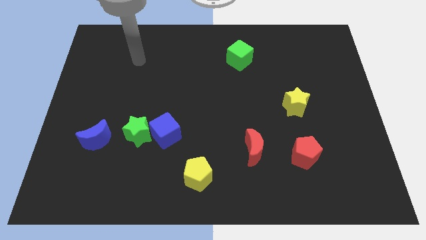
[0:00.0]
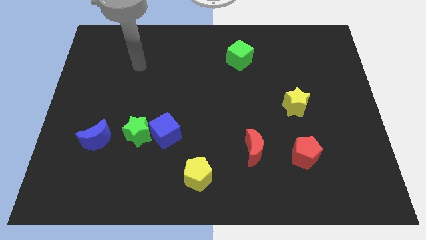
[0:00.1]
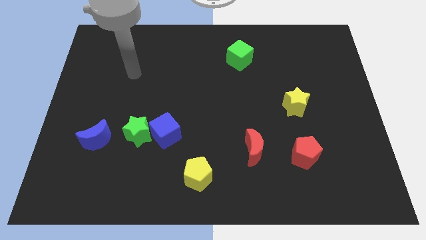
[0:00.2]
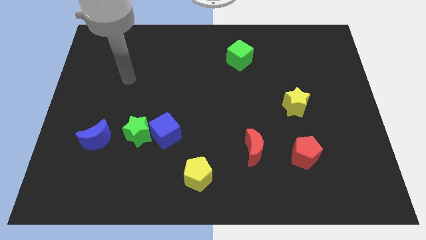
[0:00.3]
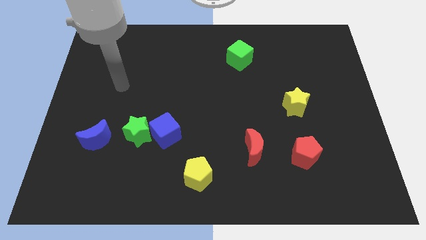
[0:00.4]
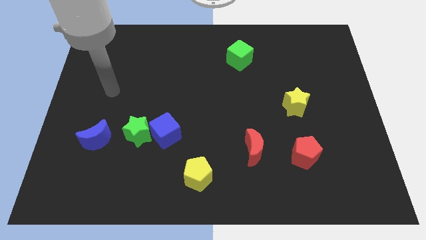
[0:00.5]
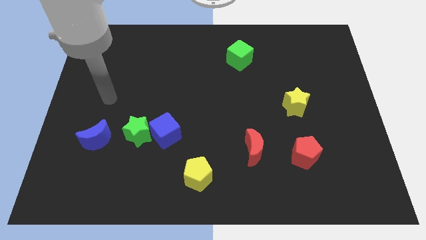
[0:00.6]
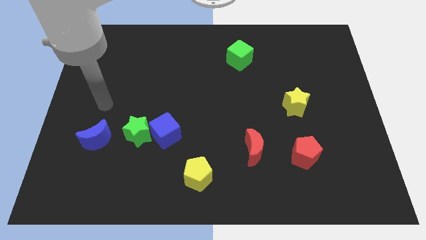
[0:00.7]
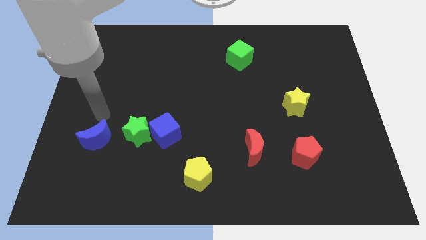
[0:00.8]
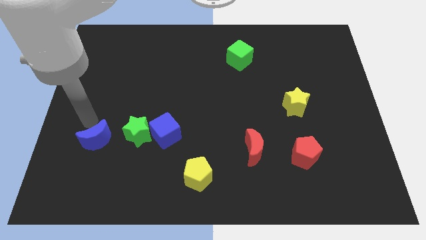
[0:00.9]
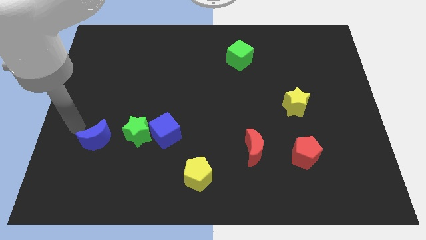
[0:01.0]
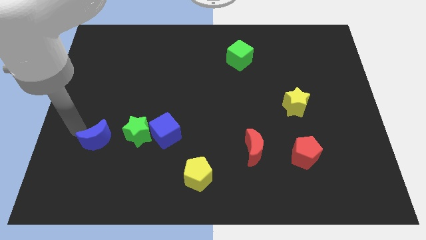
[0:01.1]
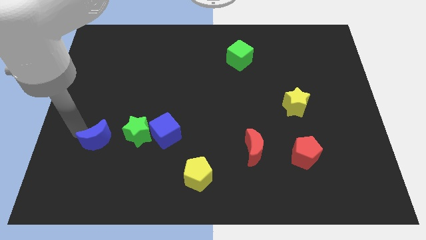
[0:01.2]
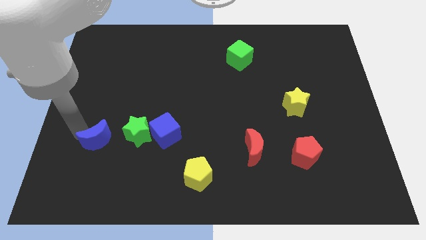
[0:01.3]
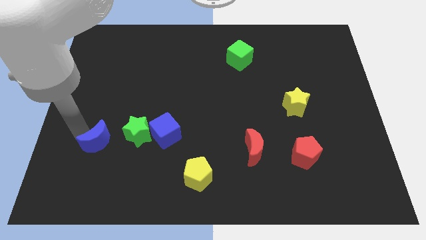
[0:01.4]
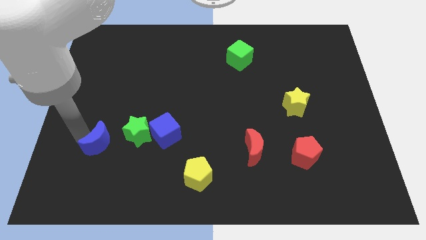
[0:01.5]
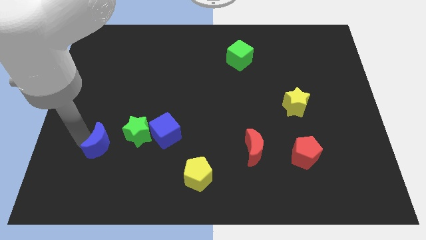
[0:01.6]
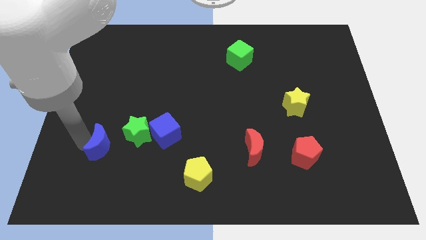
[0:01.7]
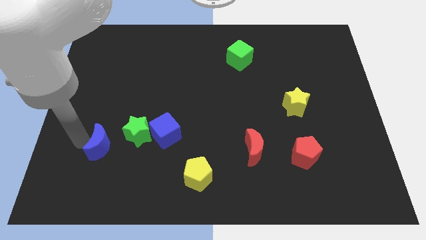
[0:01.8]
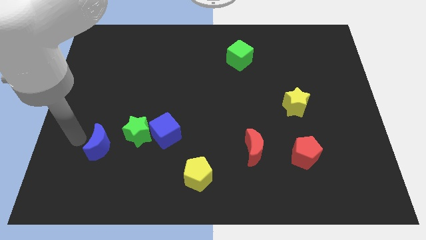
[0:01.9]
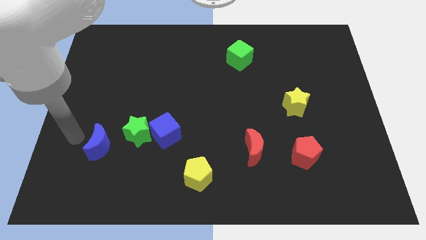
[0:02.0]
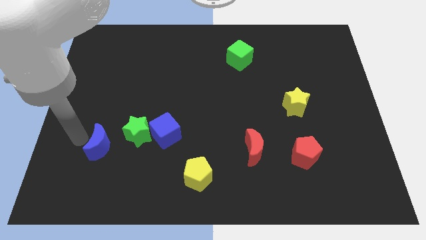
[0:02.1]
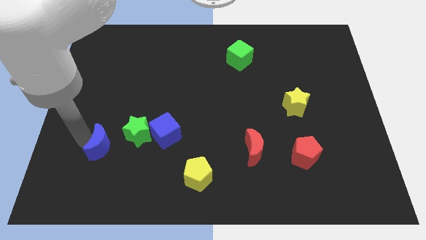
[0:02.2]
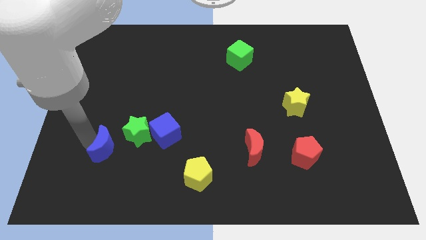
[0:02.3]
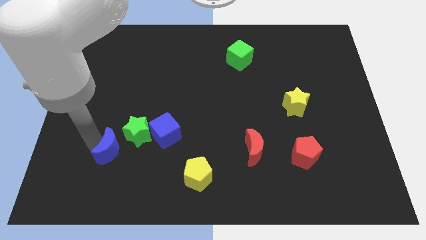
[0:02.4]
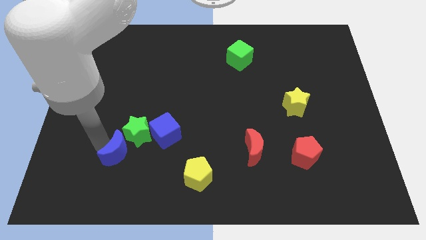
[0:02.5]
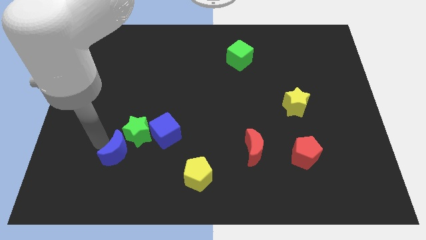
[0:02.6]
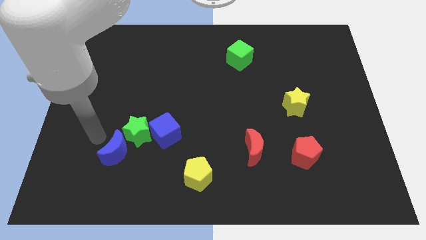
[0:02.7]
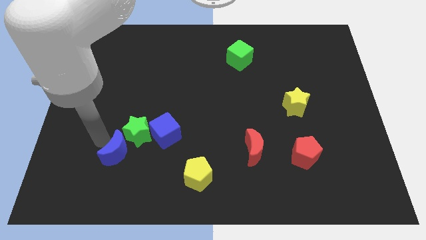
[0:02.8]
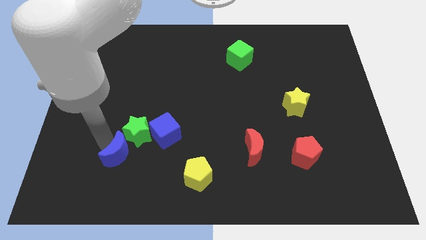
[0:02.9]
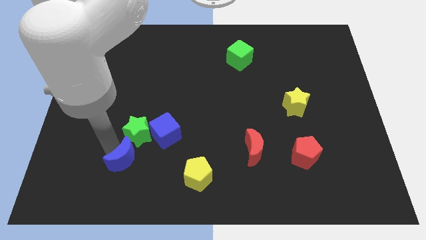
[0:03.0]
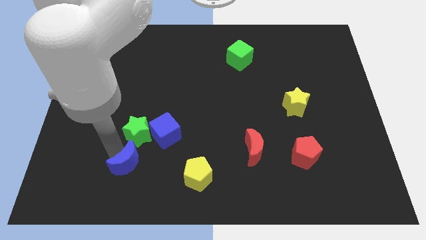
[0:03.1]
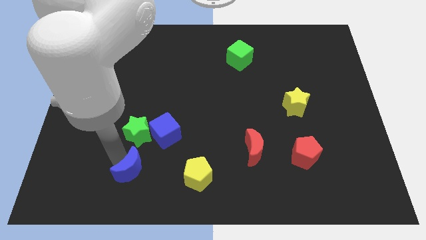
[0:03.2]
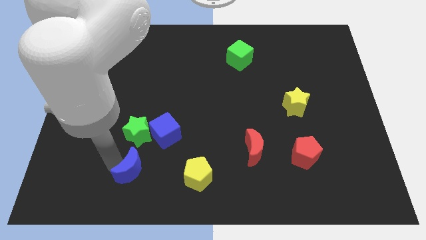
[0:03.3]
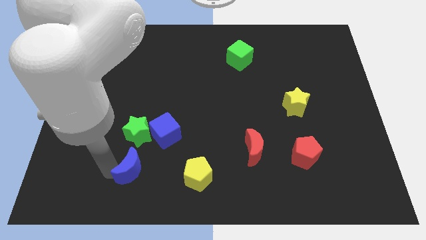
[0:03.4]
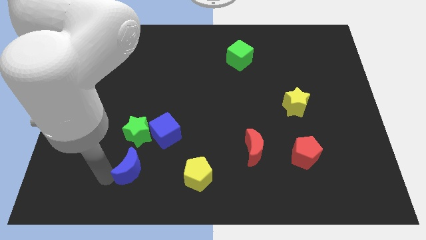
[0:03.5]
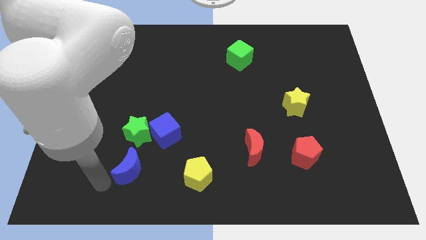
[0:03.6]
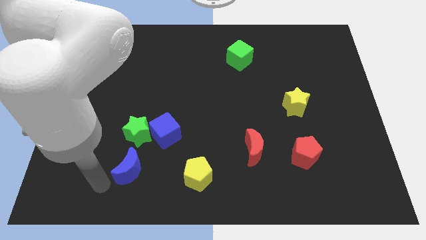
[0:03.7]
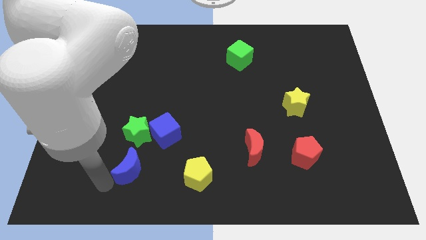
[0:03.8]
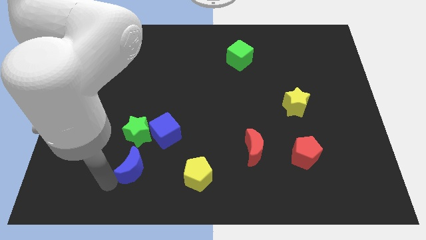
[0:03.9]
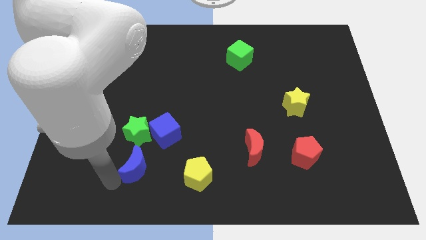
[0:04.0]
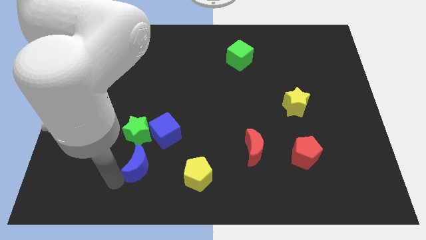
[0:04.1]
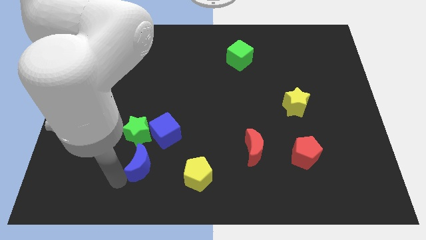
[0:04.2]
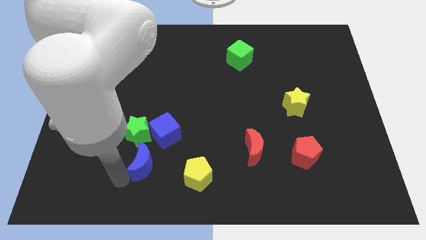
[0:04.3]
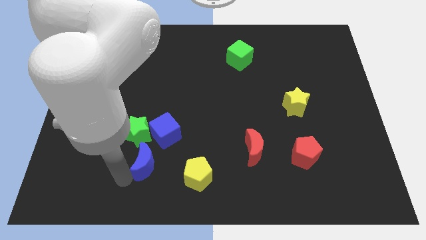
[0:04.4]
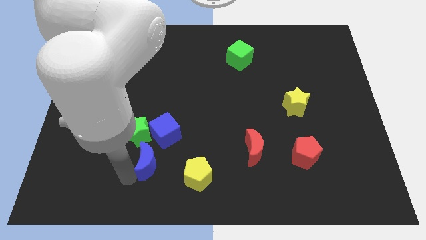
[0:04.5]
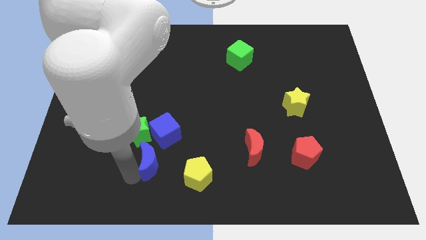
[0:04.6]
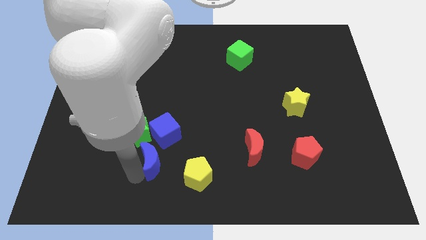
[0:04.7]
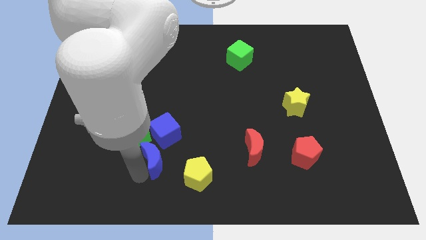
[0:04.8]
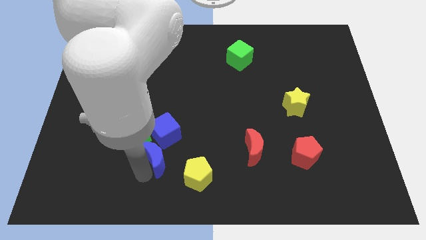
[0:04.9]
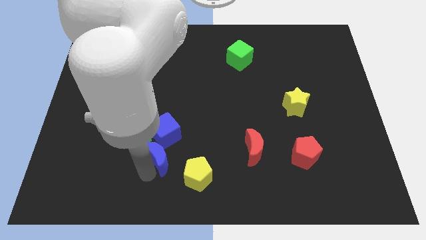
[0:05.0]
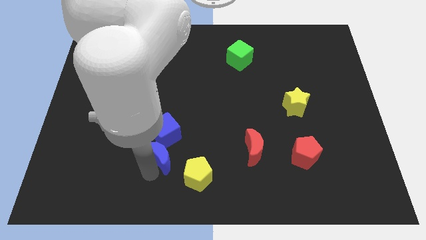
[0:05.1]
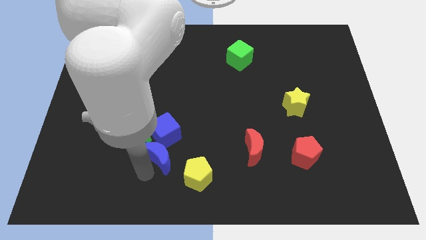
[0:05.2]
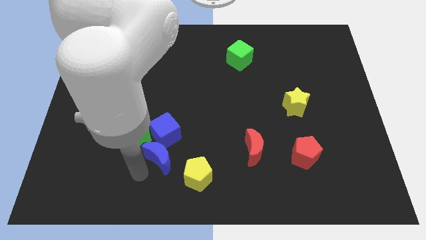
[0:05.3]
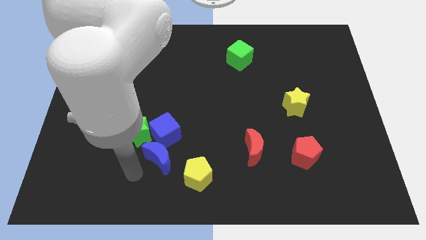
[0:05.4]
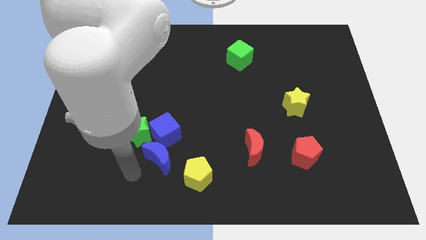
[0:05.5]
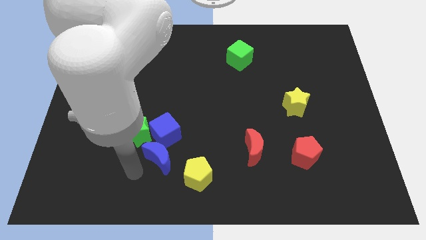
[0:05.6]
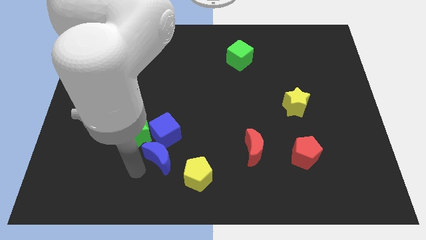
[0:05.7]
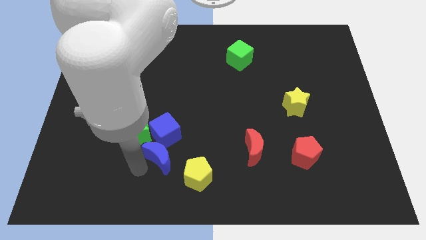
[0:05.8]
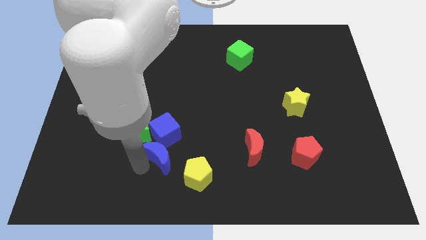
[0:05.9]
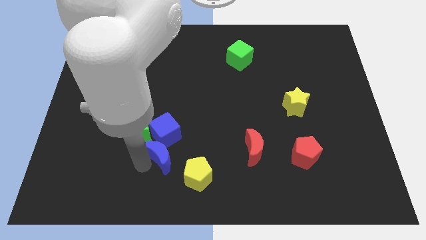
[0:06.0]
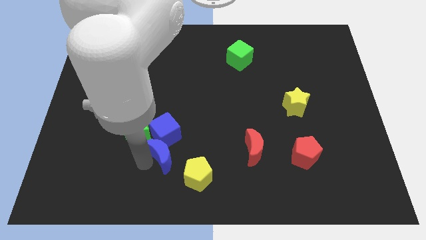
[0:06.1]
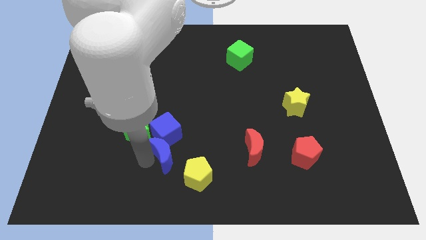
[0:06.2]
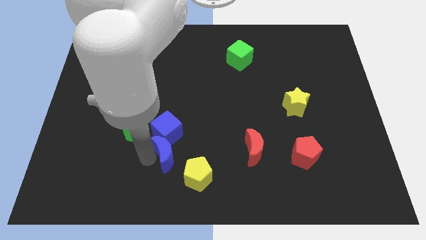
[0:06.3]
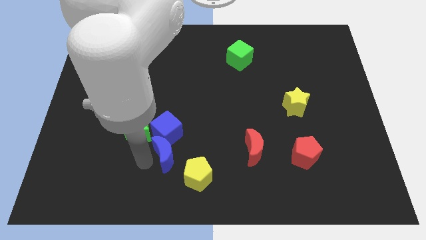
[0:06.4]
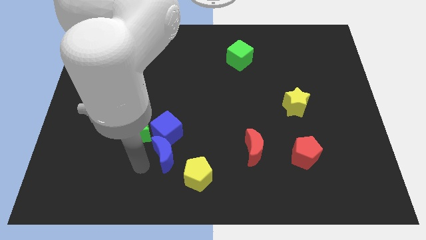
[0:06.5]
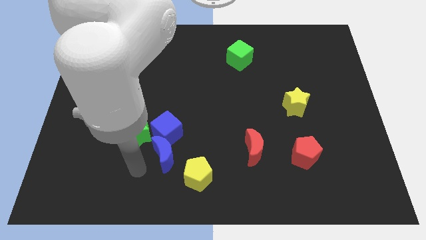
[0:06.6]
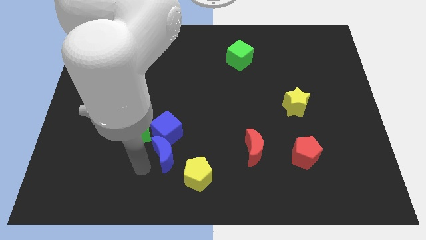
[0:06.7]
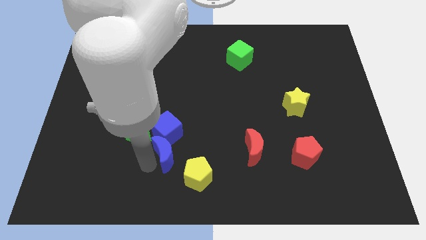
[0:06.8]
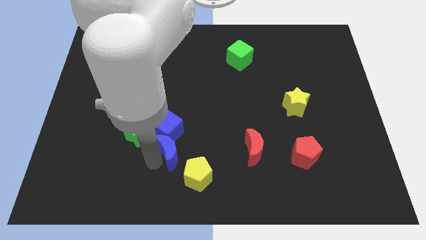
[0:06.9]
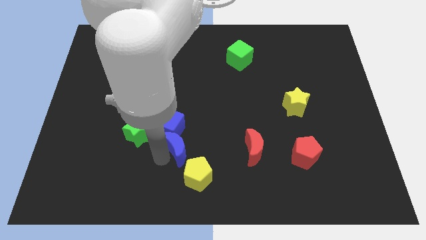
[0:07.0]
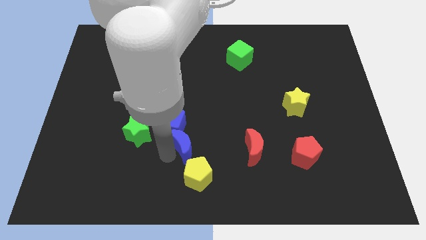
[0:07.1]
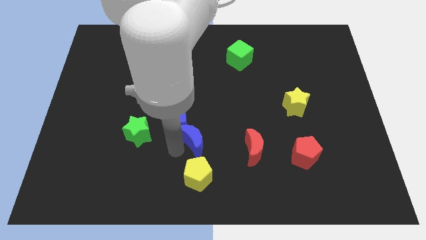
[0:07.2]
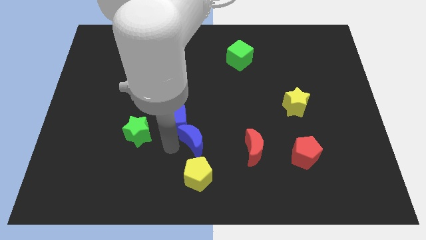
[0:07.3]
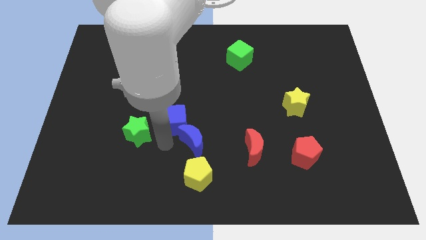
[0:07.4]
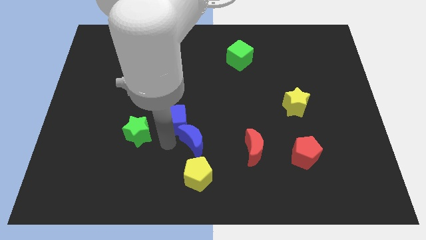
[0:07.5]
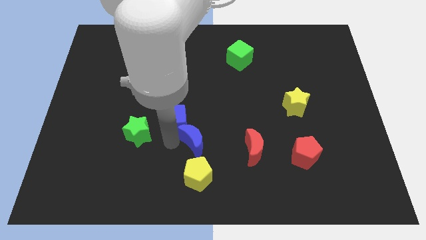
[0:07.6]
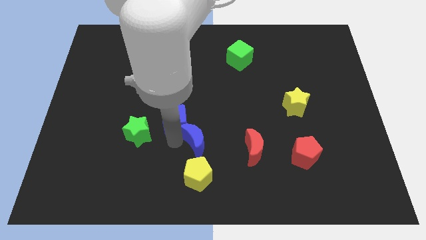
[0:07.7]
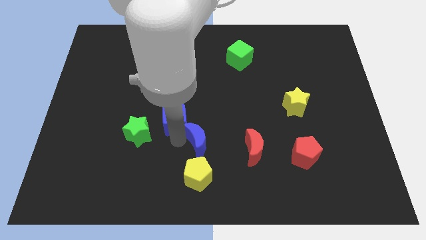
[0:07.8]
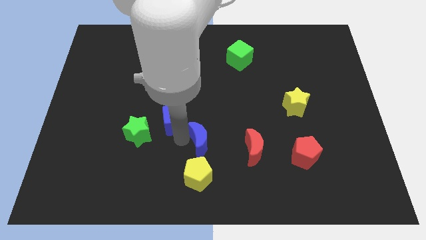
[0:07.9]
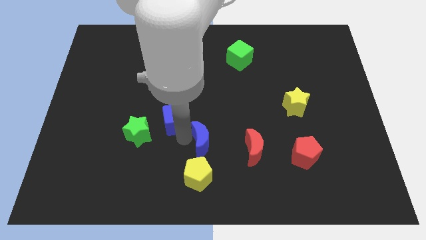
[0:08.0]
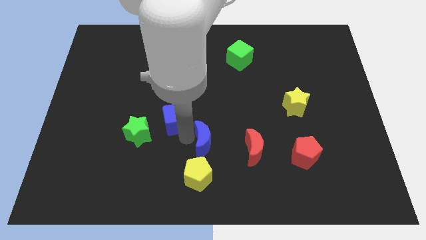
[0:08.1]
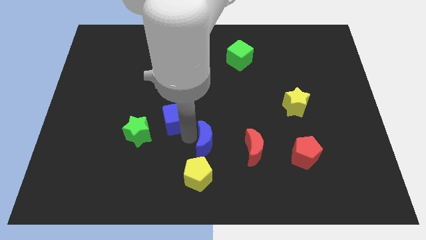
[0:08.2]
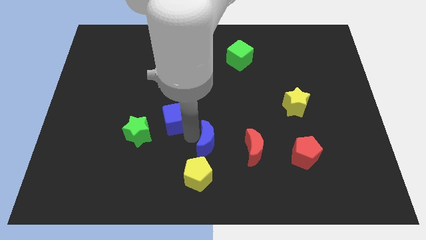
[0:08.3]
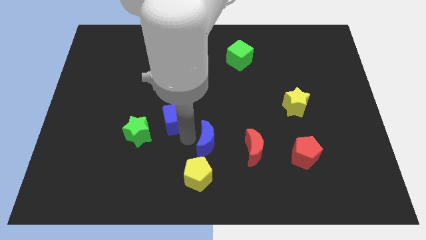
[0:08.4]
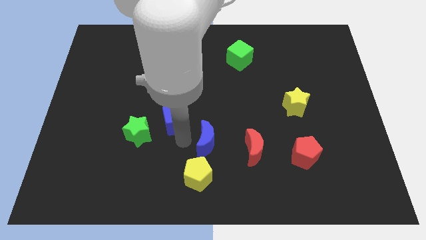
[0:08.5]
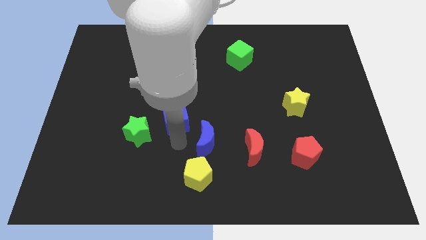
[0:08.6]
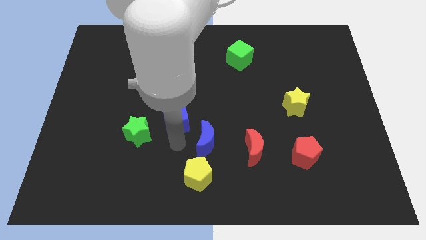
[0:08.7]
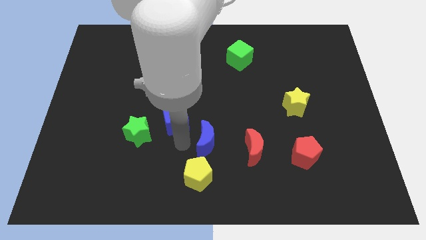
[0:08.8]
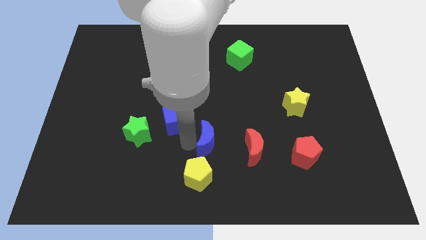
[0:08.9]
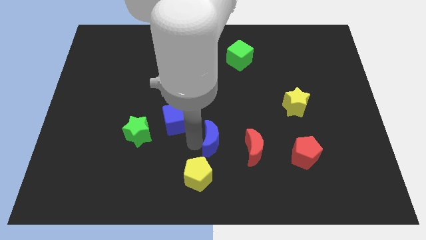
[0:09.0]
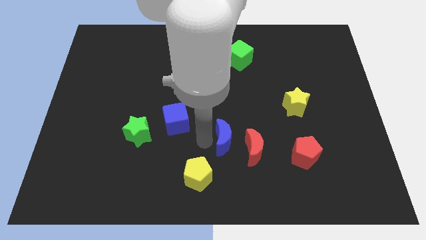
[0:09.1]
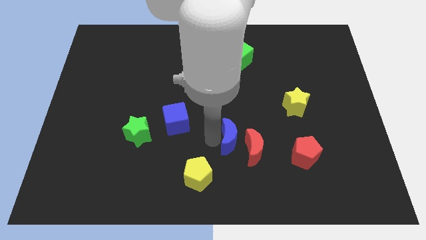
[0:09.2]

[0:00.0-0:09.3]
put the blue moon towards the red moon
